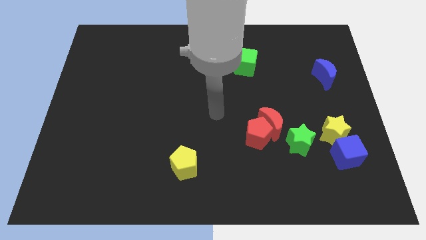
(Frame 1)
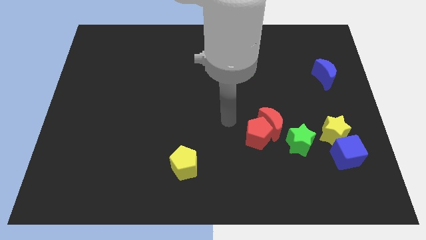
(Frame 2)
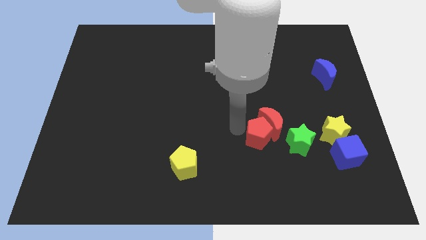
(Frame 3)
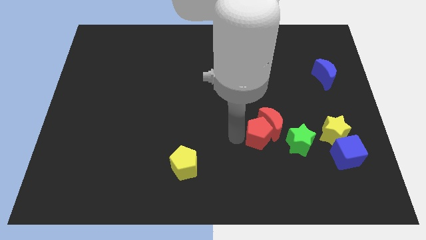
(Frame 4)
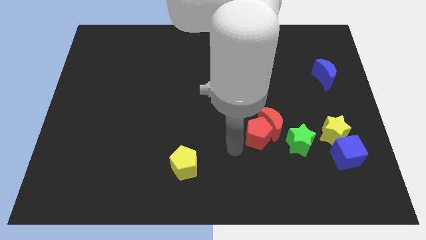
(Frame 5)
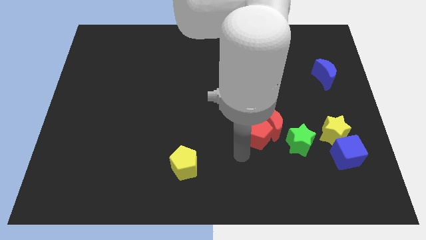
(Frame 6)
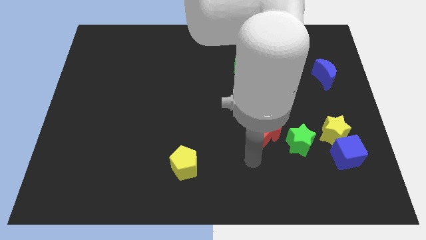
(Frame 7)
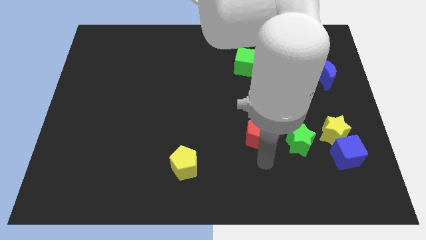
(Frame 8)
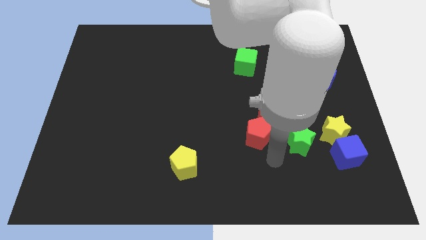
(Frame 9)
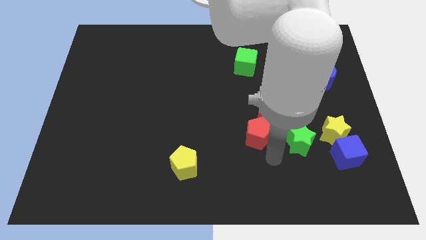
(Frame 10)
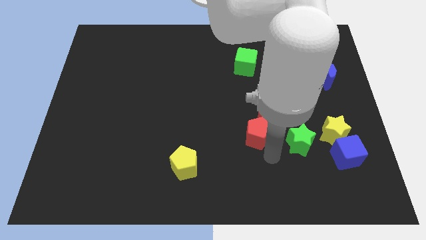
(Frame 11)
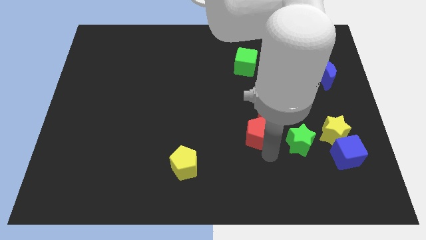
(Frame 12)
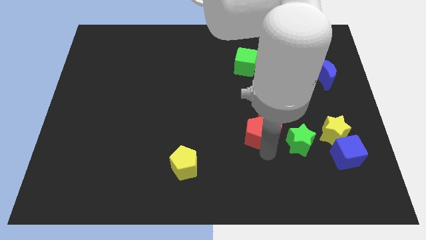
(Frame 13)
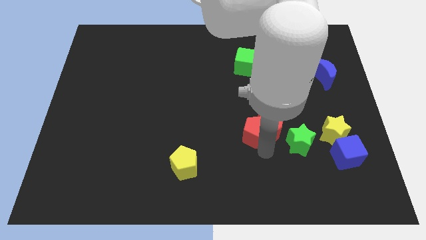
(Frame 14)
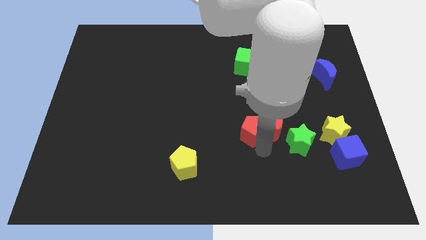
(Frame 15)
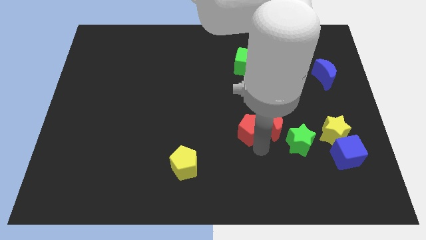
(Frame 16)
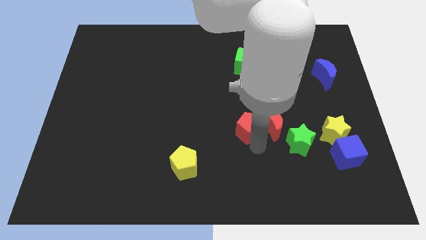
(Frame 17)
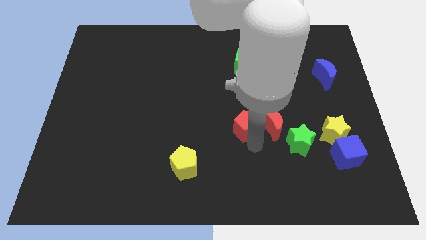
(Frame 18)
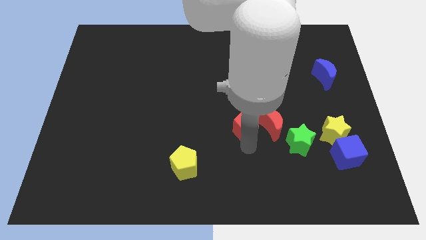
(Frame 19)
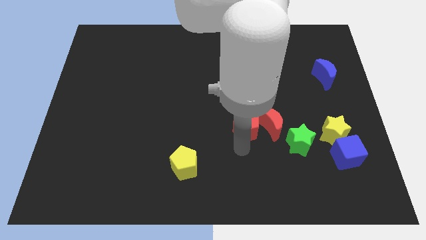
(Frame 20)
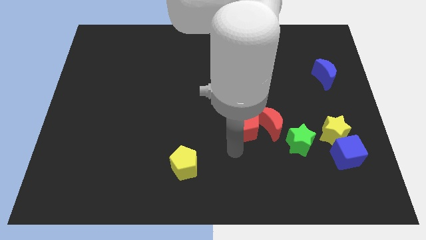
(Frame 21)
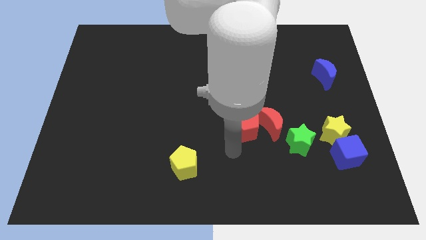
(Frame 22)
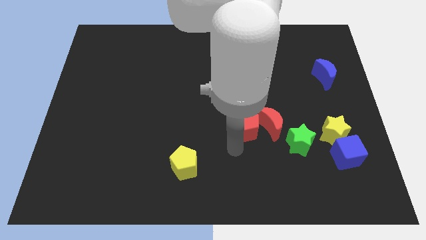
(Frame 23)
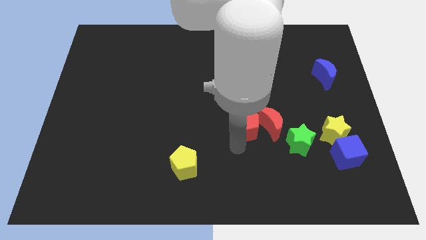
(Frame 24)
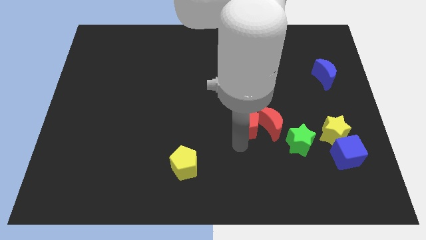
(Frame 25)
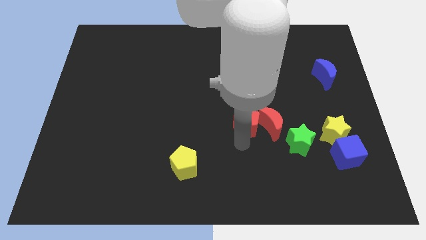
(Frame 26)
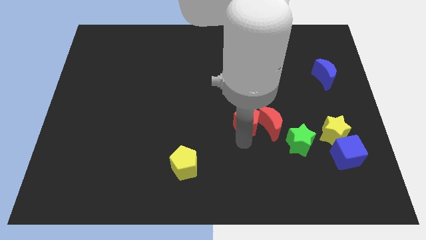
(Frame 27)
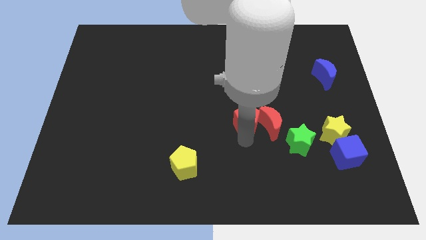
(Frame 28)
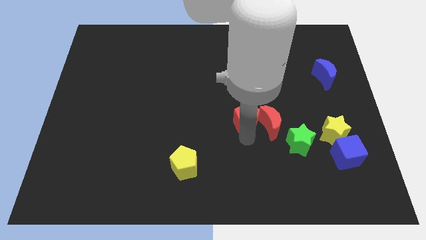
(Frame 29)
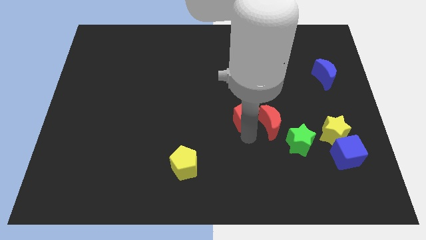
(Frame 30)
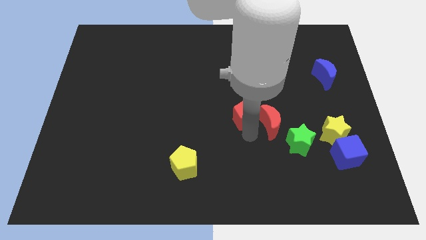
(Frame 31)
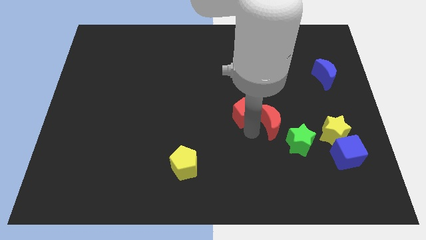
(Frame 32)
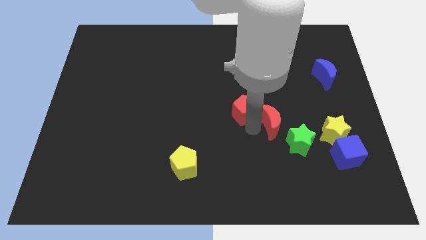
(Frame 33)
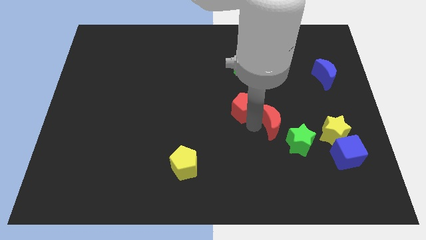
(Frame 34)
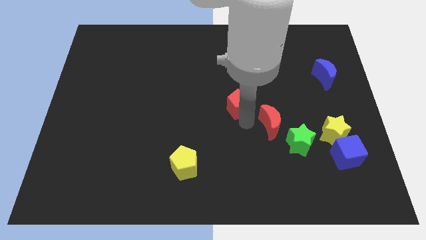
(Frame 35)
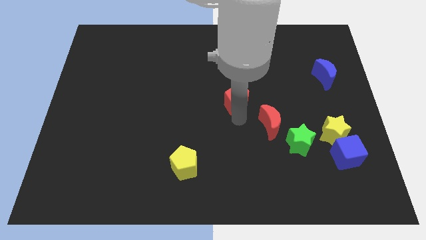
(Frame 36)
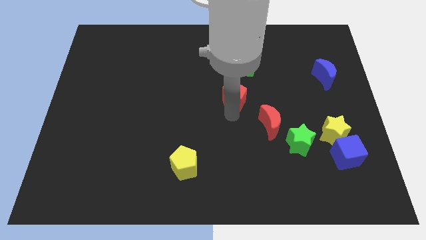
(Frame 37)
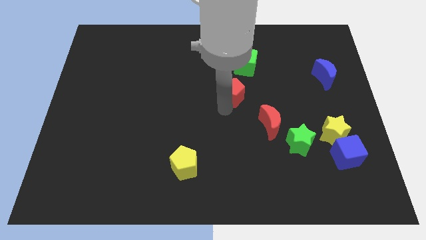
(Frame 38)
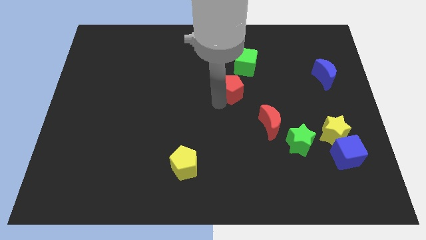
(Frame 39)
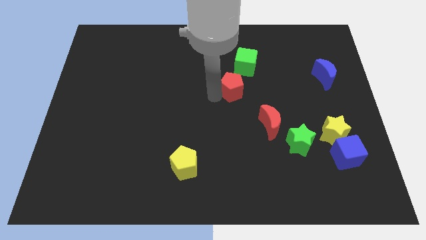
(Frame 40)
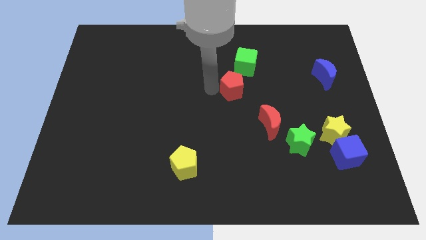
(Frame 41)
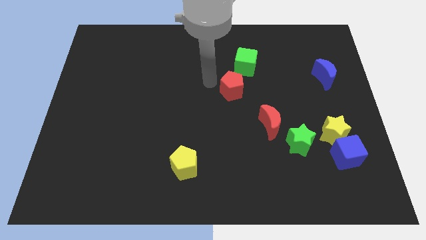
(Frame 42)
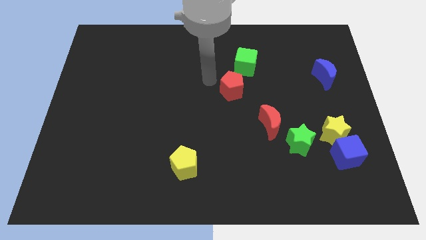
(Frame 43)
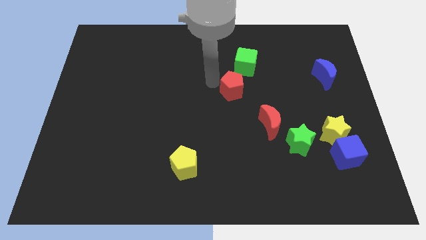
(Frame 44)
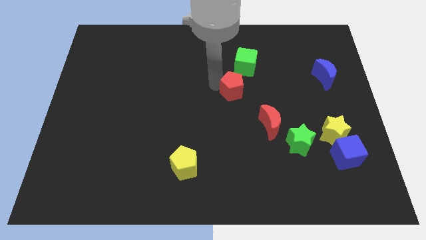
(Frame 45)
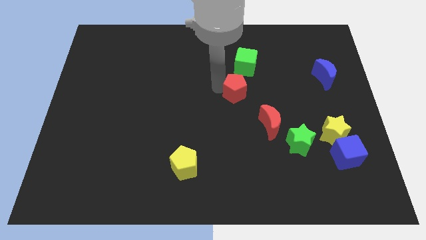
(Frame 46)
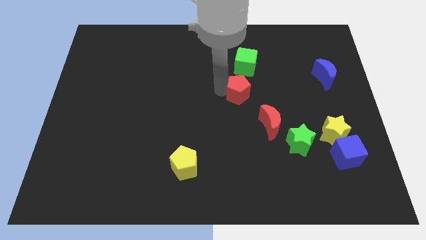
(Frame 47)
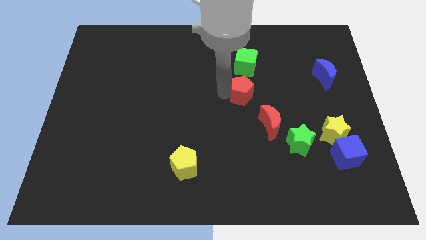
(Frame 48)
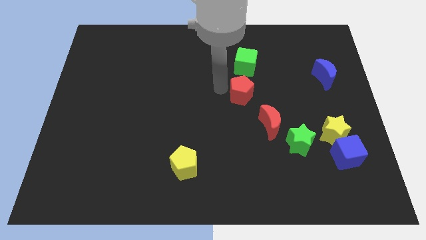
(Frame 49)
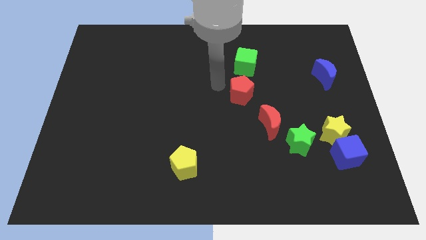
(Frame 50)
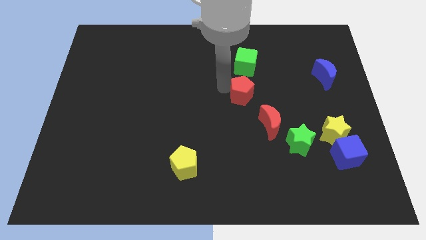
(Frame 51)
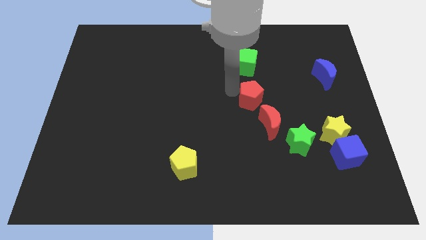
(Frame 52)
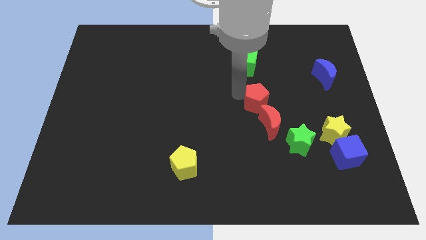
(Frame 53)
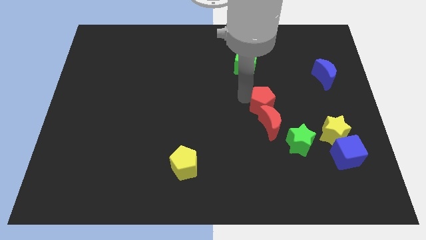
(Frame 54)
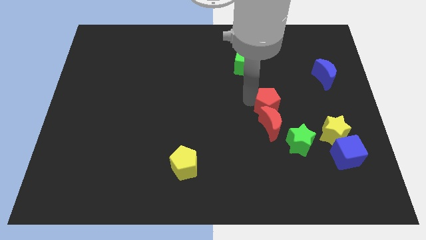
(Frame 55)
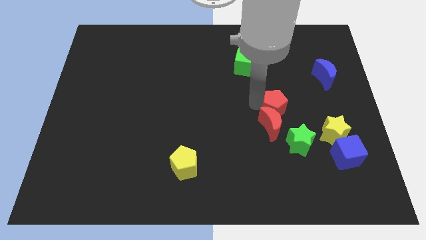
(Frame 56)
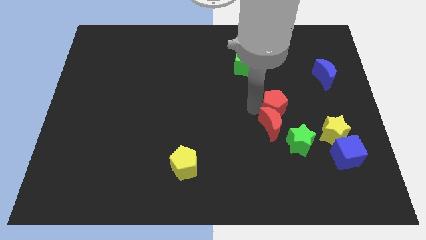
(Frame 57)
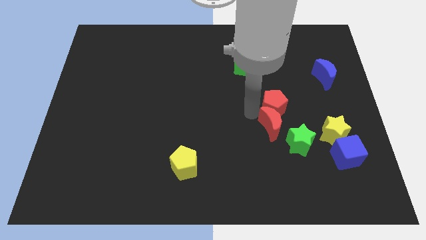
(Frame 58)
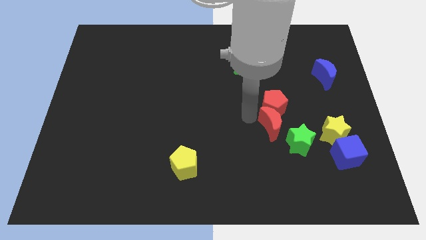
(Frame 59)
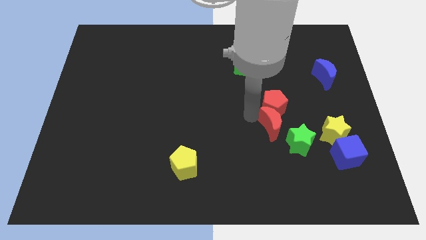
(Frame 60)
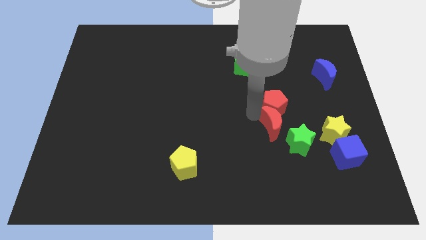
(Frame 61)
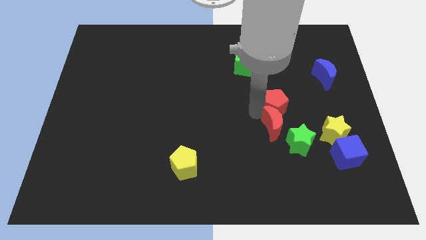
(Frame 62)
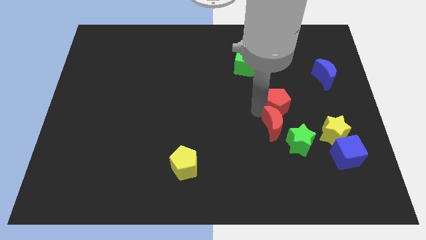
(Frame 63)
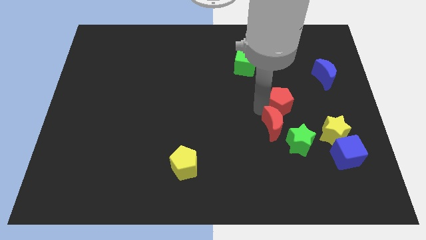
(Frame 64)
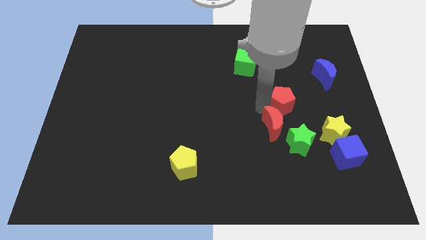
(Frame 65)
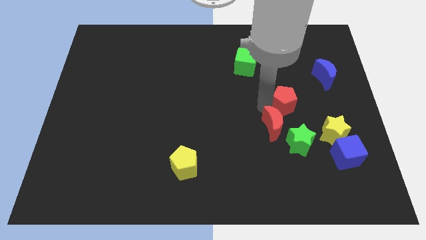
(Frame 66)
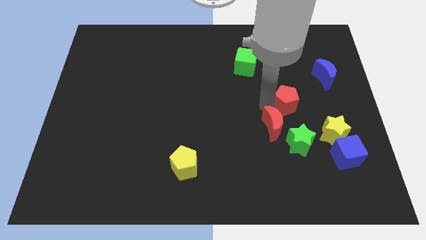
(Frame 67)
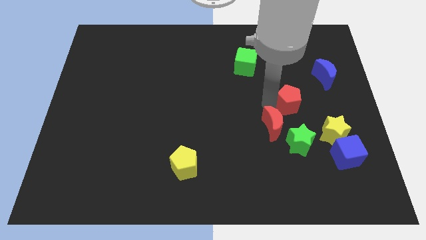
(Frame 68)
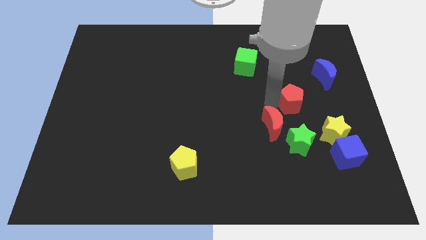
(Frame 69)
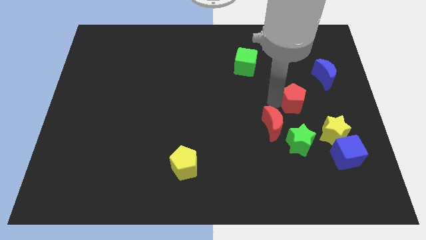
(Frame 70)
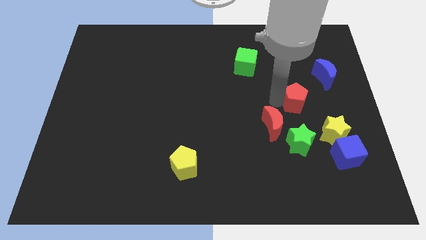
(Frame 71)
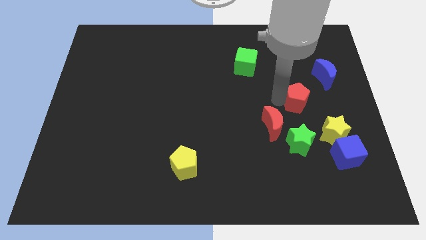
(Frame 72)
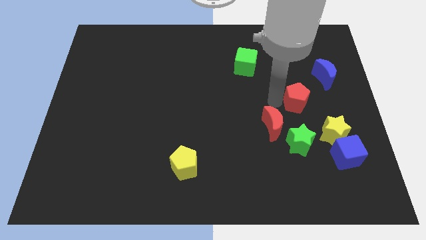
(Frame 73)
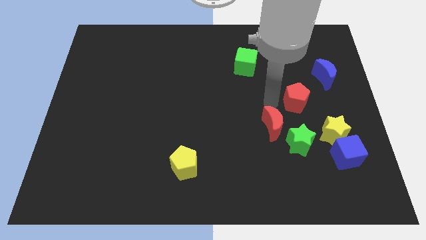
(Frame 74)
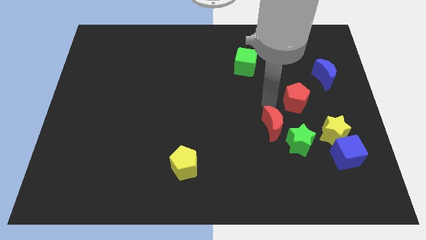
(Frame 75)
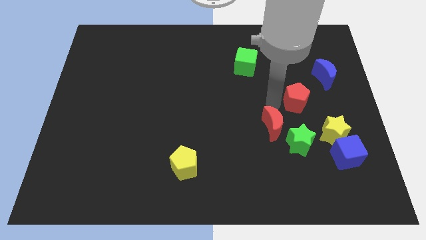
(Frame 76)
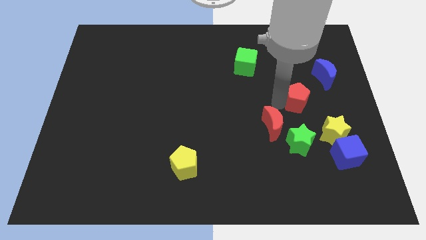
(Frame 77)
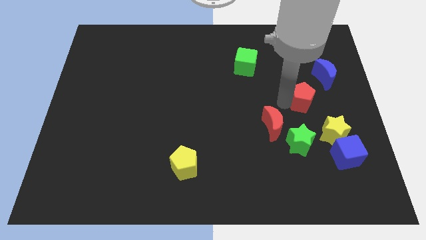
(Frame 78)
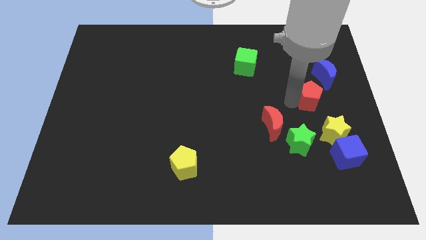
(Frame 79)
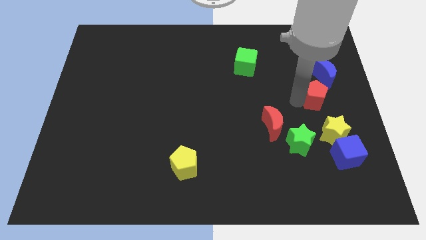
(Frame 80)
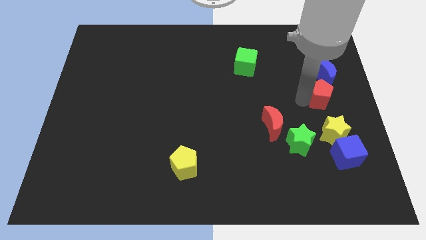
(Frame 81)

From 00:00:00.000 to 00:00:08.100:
move the red pentagon to the center right
